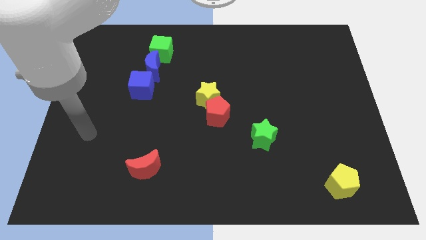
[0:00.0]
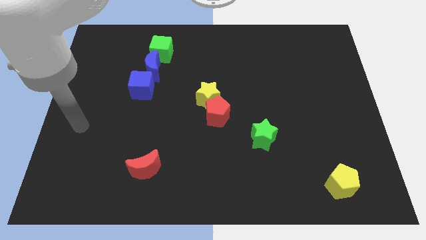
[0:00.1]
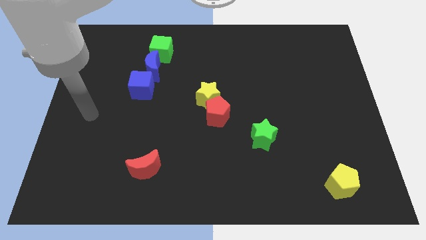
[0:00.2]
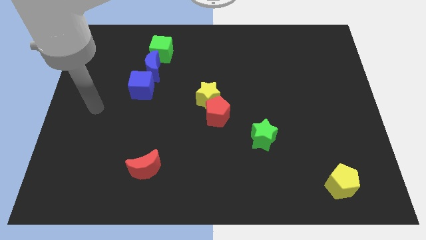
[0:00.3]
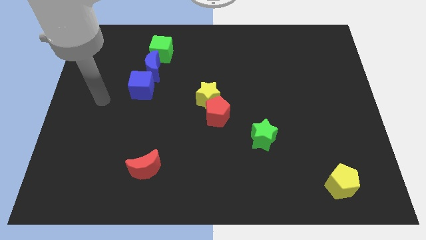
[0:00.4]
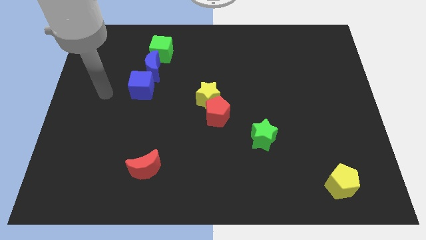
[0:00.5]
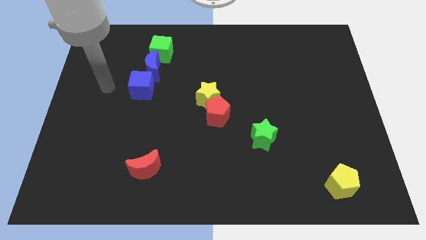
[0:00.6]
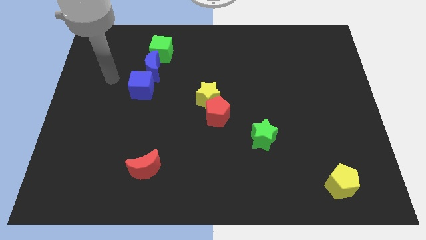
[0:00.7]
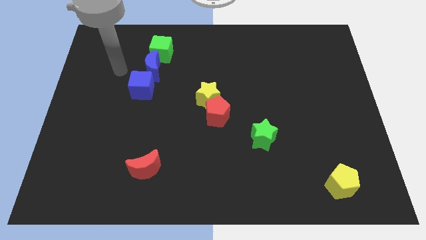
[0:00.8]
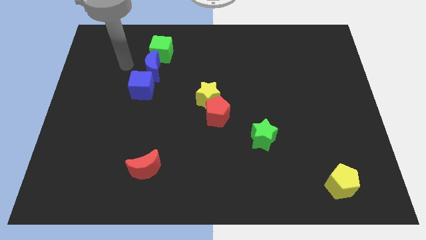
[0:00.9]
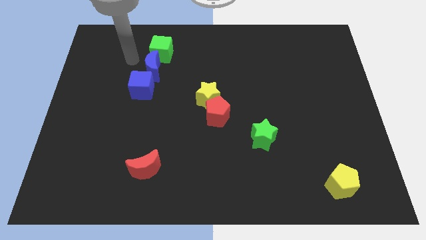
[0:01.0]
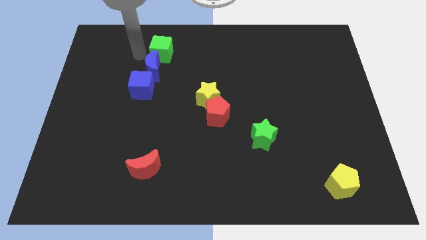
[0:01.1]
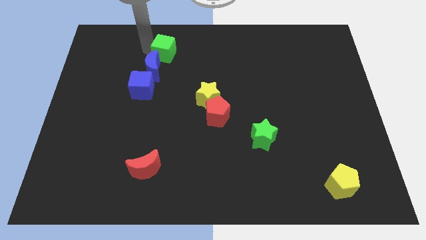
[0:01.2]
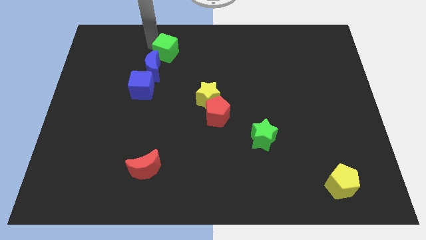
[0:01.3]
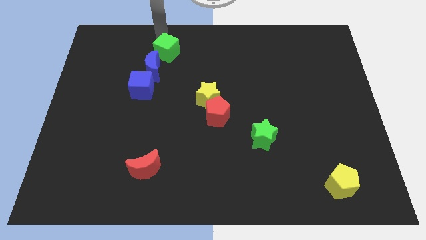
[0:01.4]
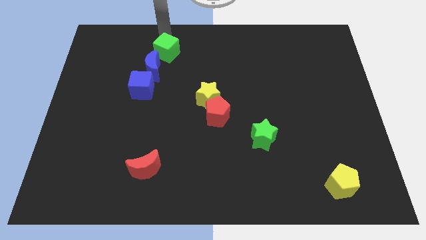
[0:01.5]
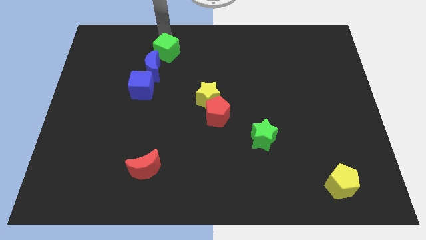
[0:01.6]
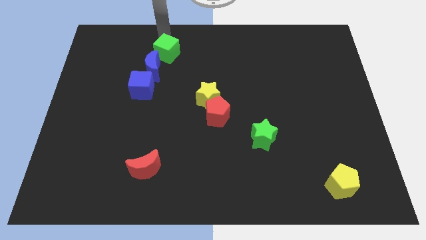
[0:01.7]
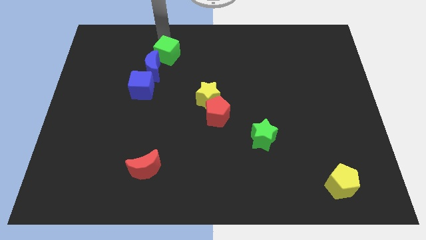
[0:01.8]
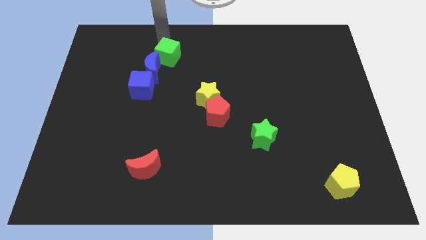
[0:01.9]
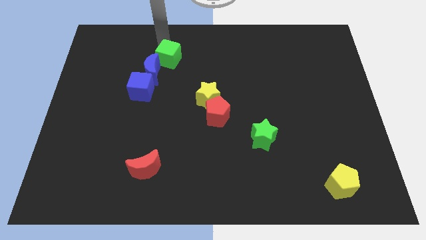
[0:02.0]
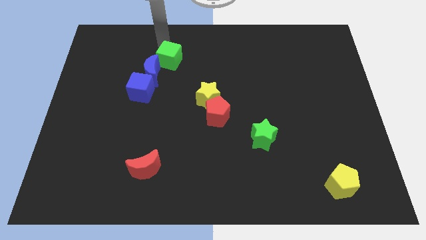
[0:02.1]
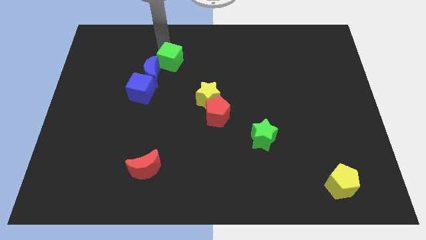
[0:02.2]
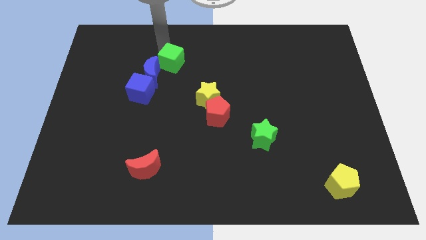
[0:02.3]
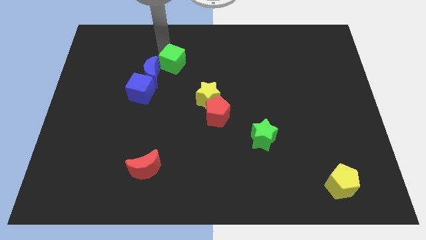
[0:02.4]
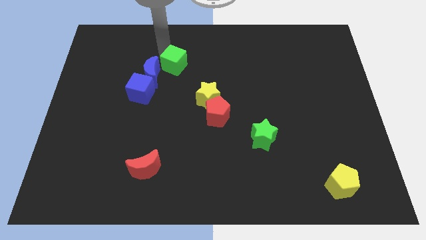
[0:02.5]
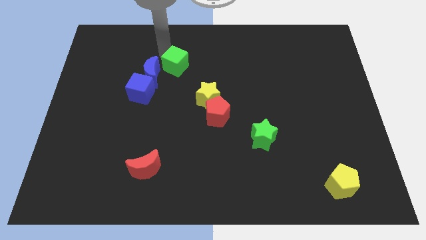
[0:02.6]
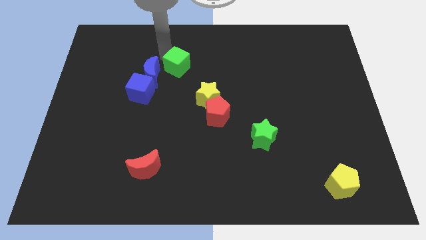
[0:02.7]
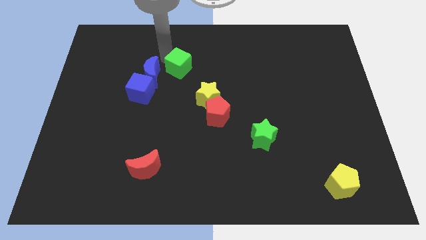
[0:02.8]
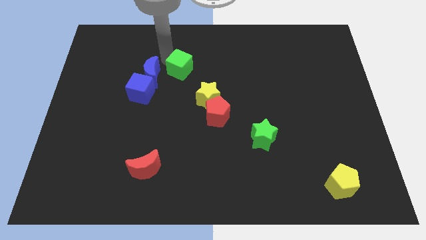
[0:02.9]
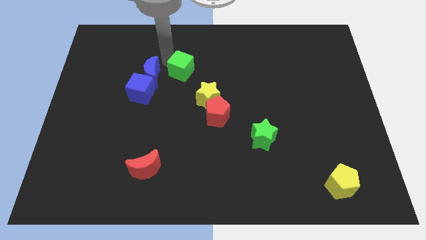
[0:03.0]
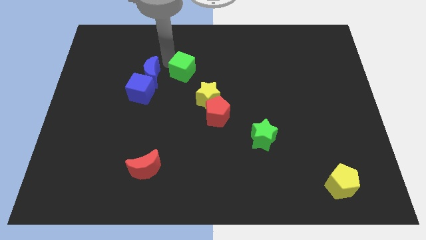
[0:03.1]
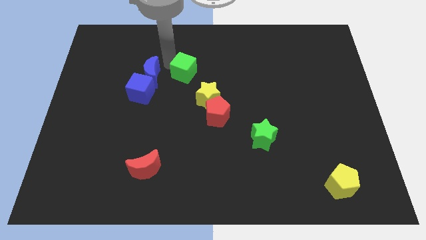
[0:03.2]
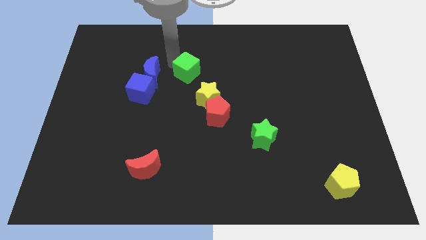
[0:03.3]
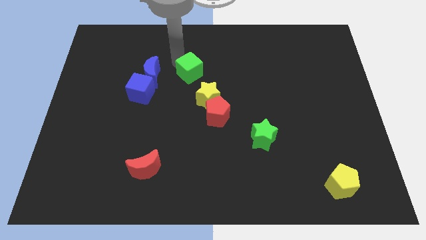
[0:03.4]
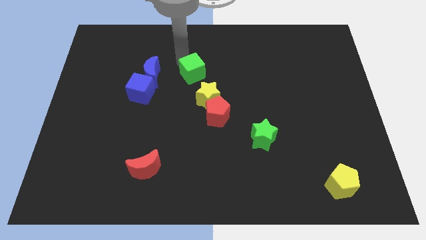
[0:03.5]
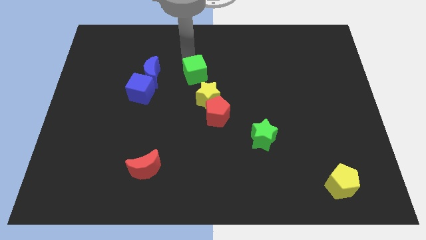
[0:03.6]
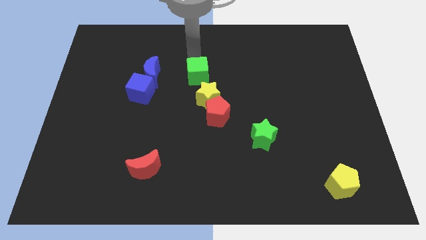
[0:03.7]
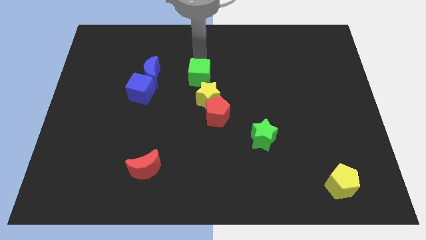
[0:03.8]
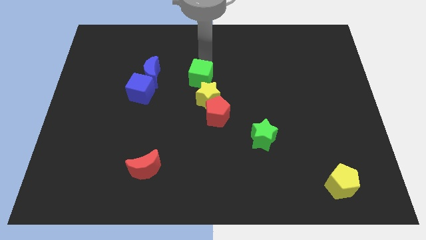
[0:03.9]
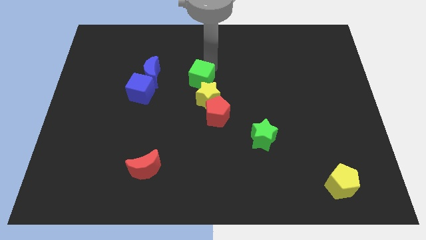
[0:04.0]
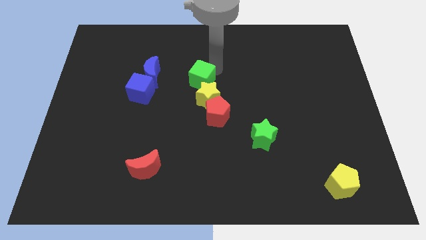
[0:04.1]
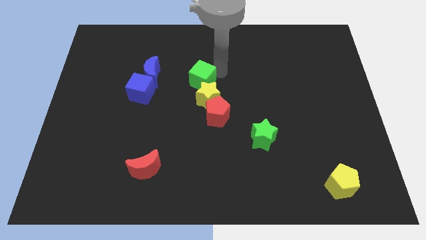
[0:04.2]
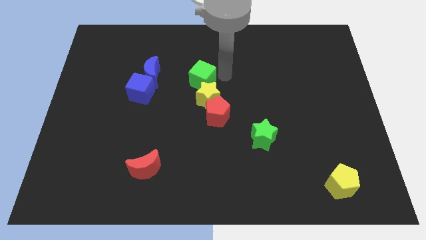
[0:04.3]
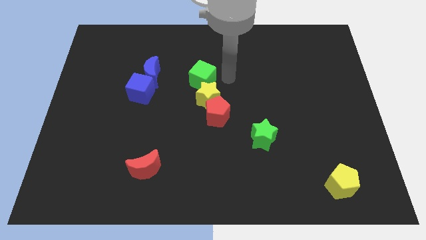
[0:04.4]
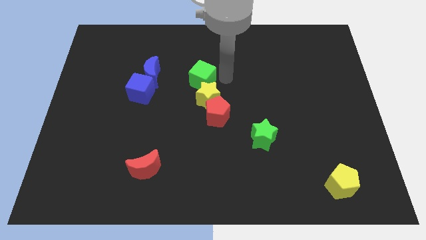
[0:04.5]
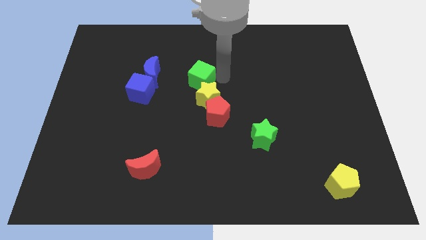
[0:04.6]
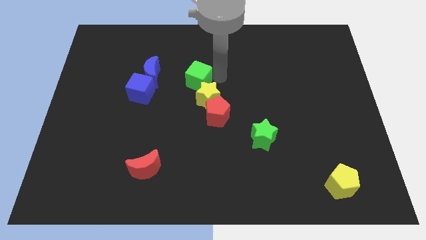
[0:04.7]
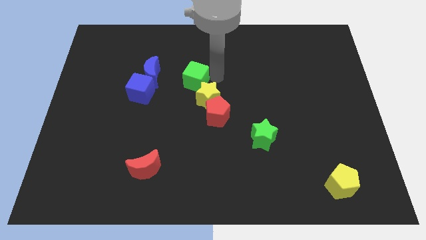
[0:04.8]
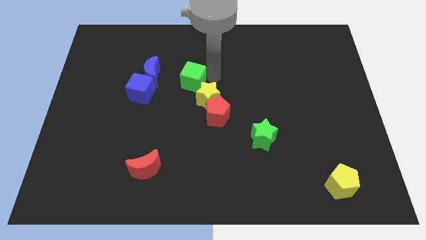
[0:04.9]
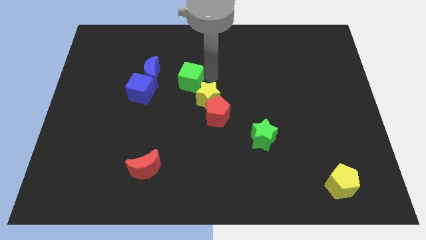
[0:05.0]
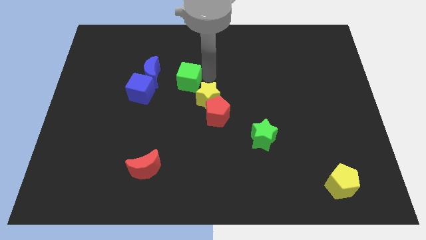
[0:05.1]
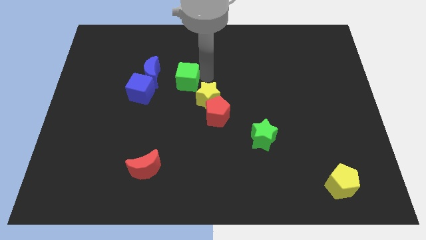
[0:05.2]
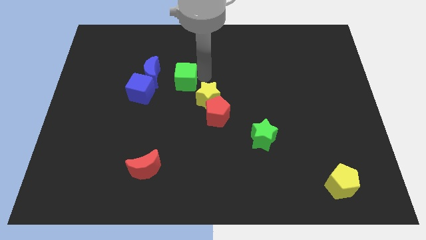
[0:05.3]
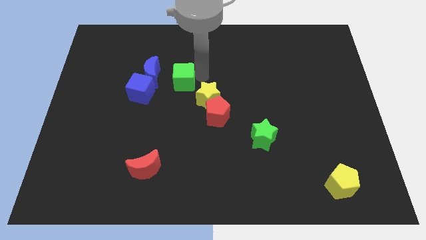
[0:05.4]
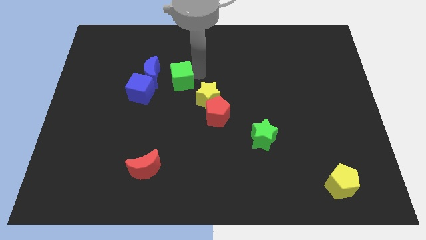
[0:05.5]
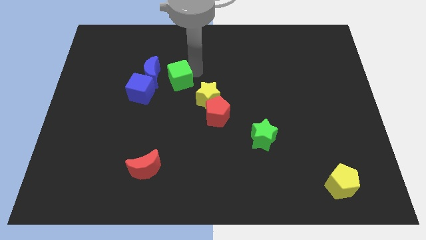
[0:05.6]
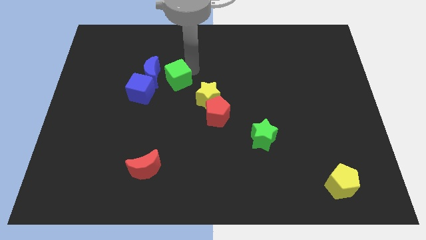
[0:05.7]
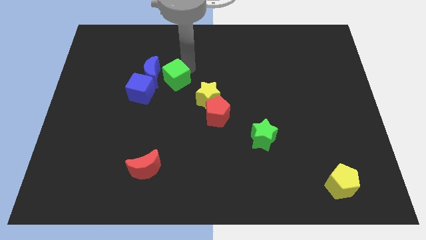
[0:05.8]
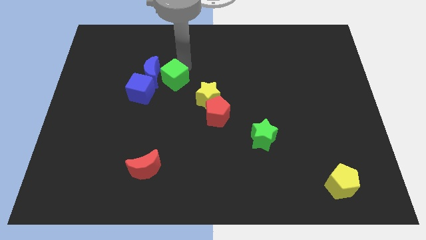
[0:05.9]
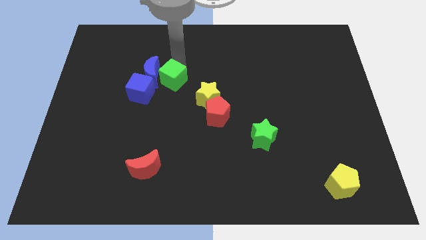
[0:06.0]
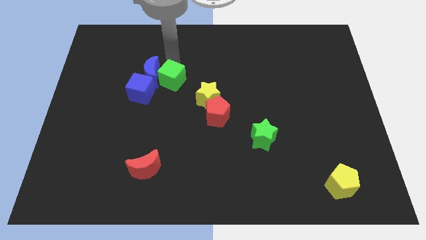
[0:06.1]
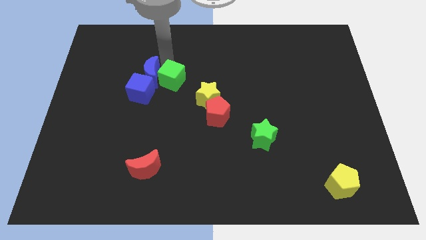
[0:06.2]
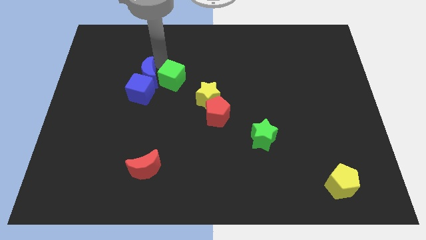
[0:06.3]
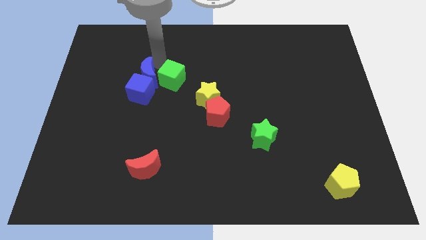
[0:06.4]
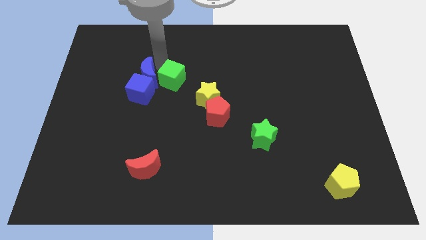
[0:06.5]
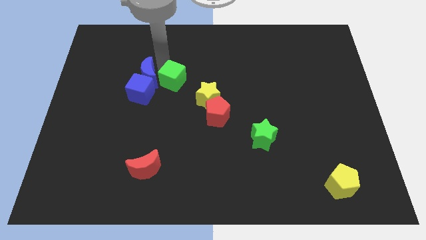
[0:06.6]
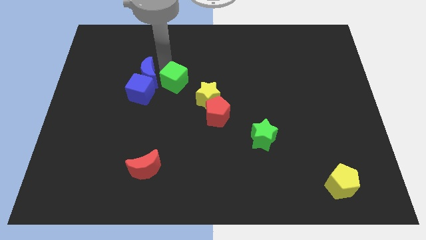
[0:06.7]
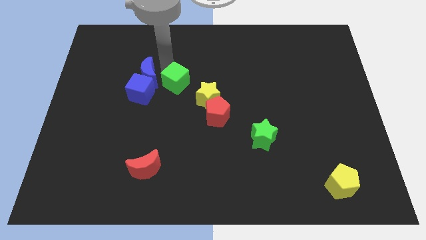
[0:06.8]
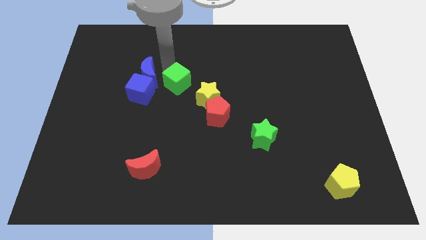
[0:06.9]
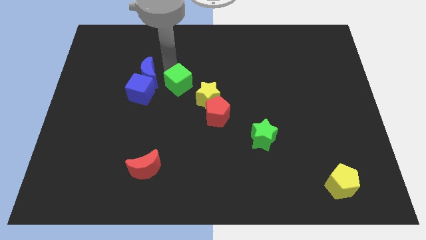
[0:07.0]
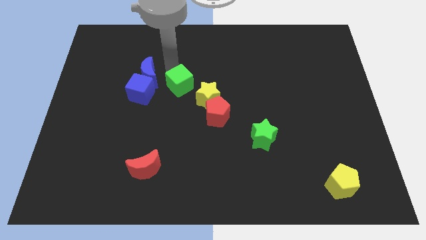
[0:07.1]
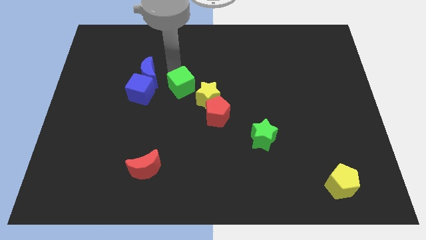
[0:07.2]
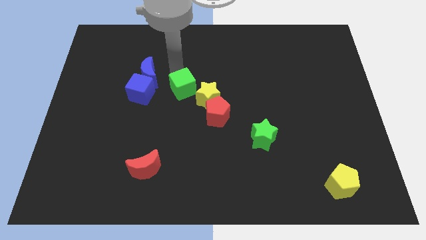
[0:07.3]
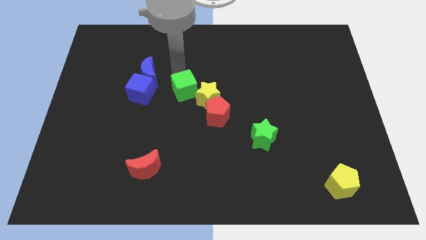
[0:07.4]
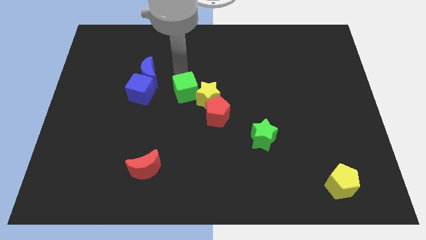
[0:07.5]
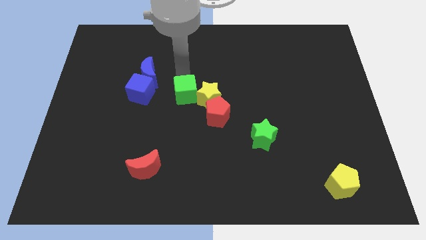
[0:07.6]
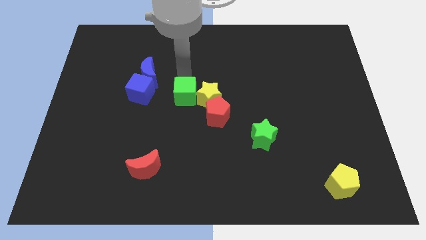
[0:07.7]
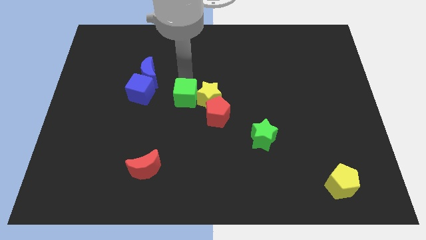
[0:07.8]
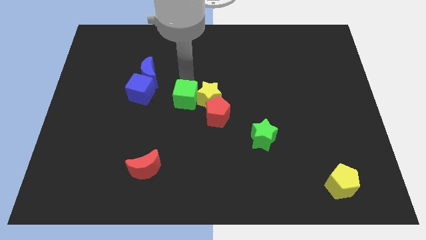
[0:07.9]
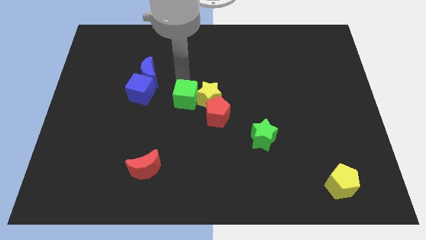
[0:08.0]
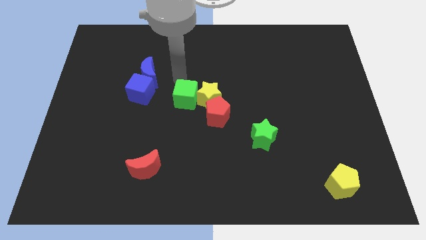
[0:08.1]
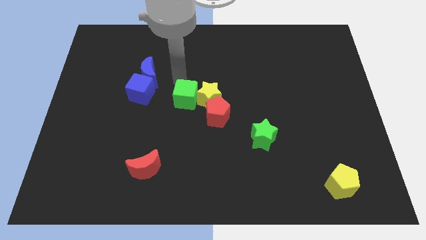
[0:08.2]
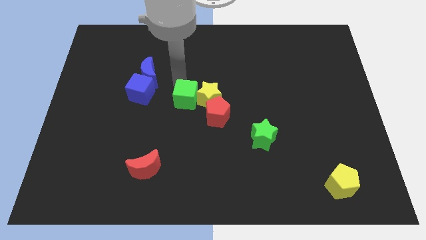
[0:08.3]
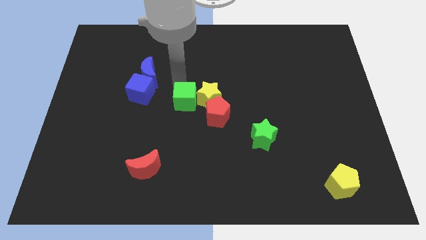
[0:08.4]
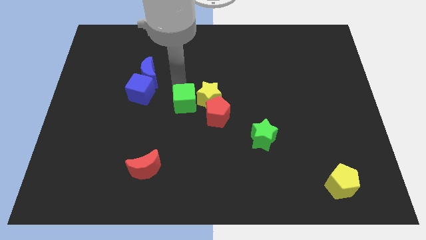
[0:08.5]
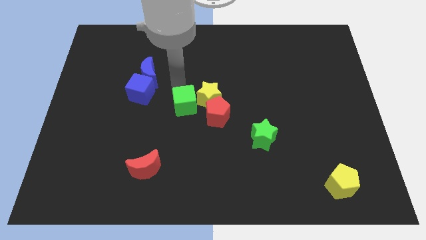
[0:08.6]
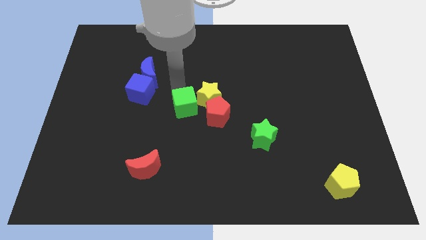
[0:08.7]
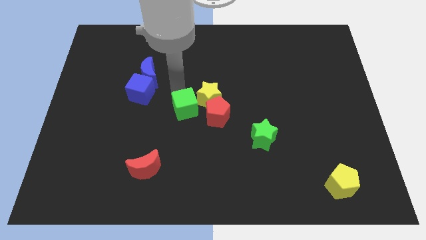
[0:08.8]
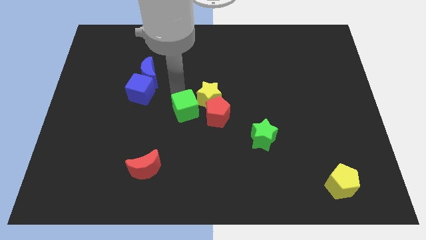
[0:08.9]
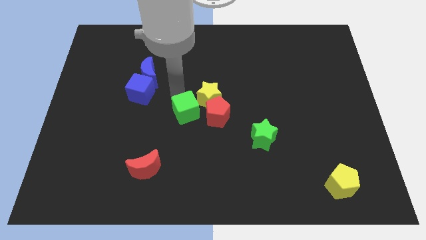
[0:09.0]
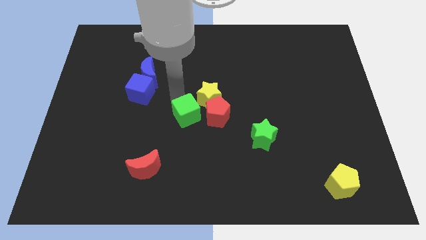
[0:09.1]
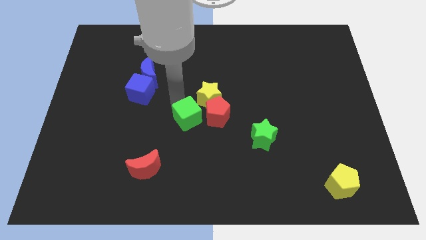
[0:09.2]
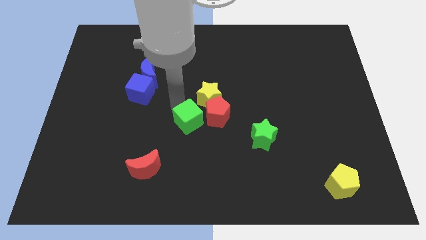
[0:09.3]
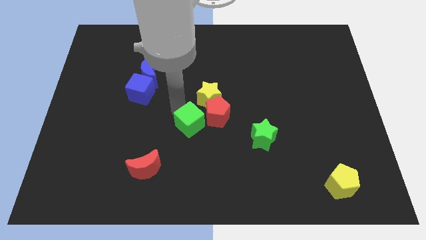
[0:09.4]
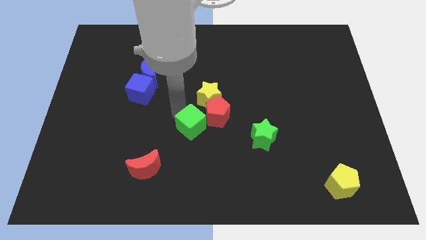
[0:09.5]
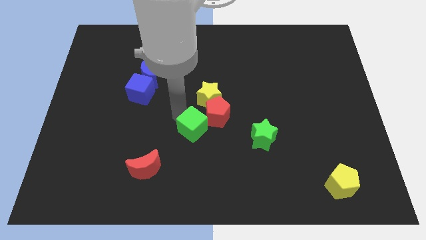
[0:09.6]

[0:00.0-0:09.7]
push the green cube left of the green star
